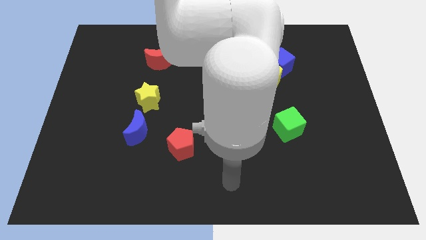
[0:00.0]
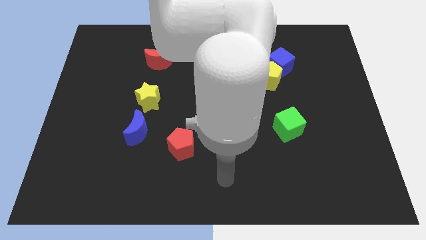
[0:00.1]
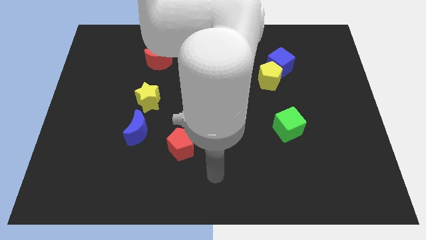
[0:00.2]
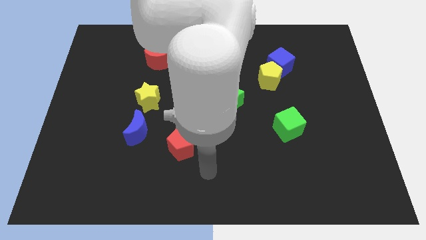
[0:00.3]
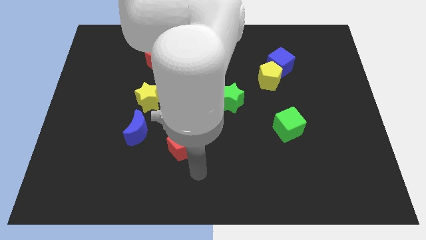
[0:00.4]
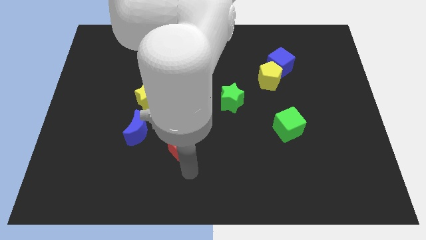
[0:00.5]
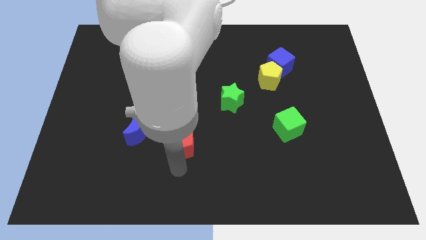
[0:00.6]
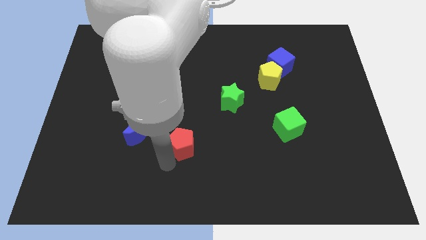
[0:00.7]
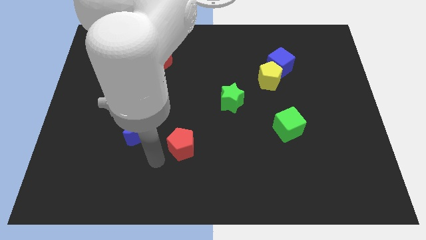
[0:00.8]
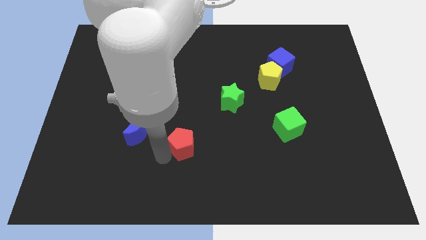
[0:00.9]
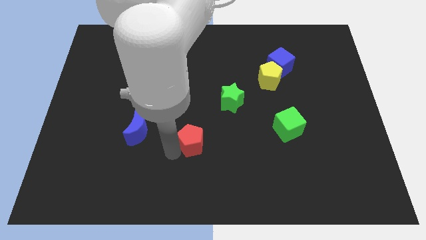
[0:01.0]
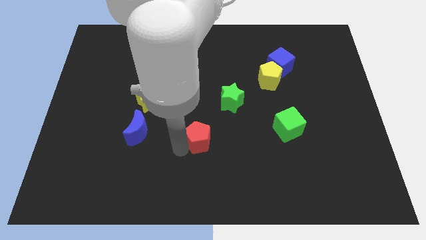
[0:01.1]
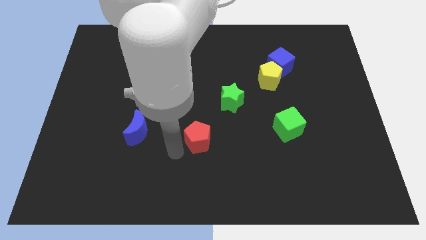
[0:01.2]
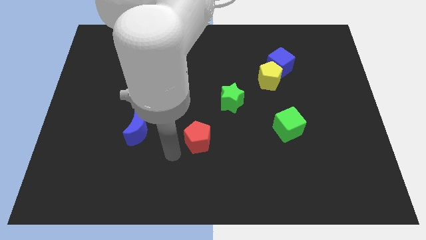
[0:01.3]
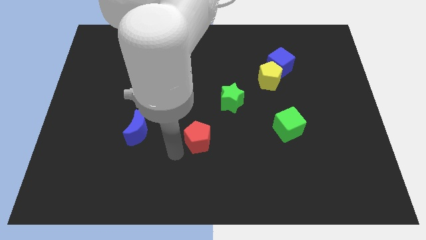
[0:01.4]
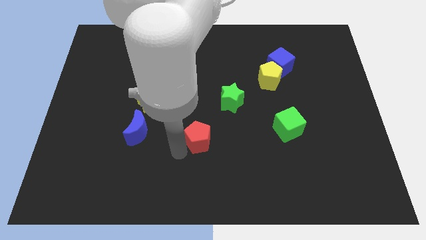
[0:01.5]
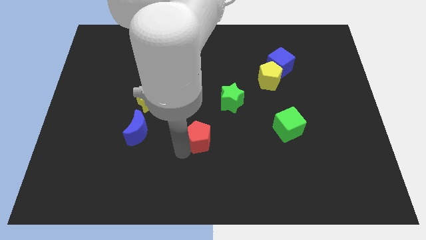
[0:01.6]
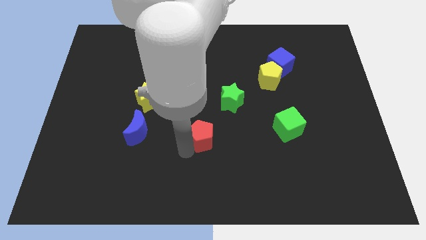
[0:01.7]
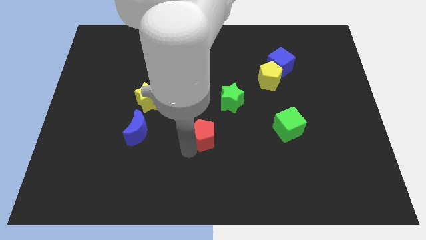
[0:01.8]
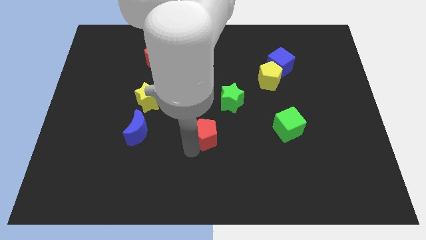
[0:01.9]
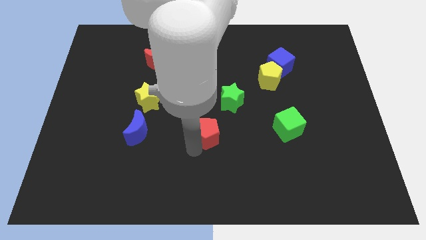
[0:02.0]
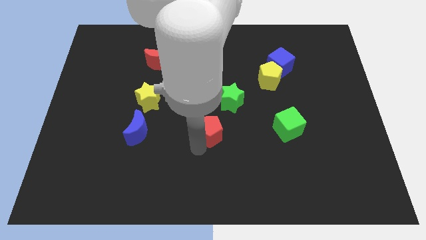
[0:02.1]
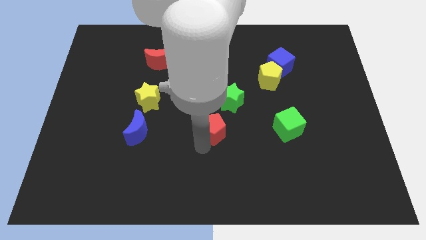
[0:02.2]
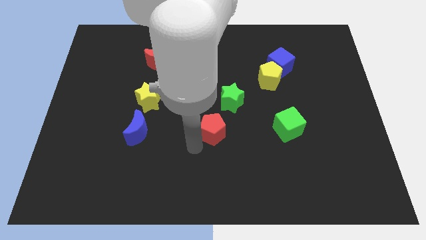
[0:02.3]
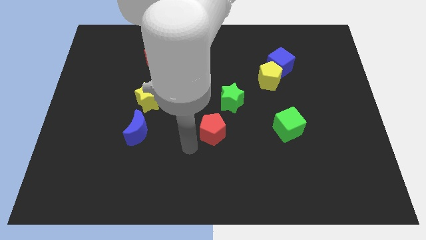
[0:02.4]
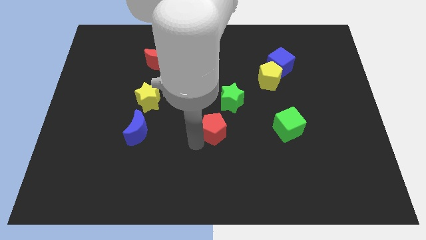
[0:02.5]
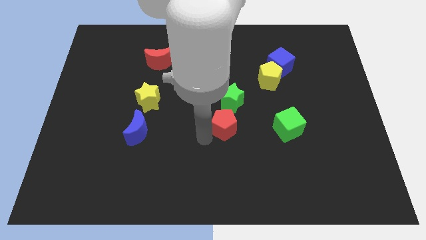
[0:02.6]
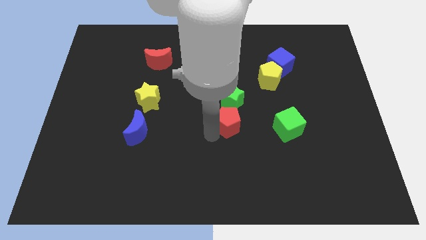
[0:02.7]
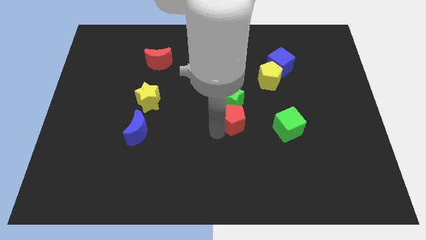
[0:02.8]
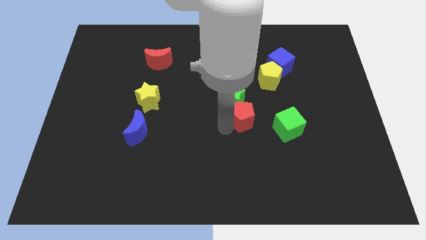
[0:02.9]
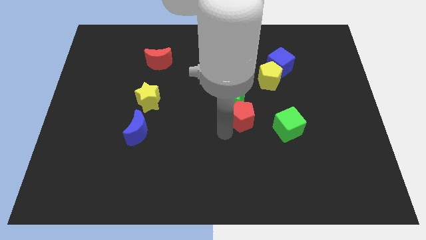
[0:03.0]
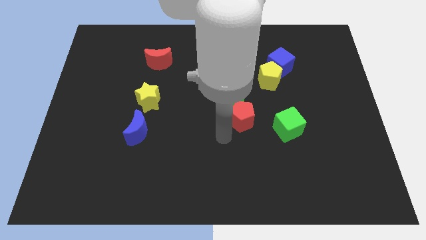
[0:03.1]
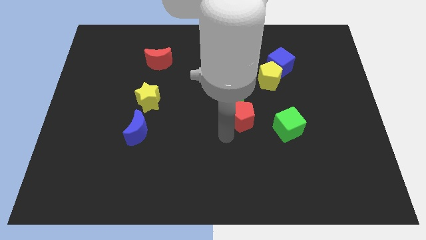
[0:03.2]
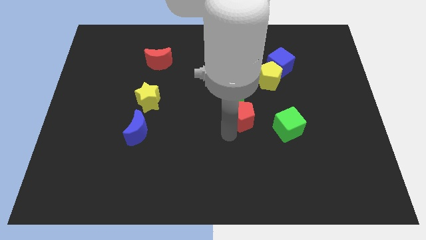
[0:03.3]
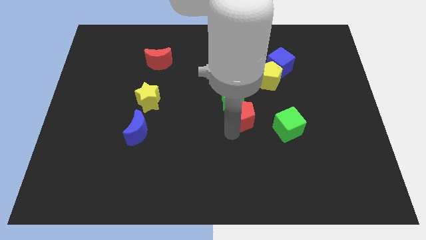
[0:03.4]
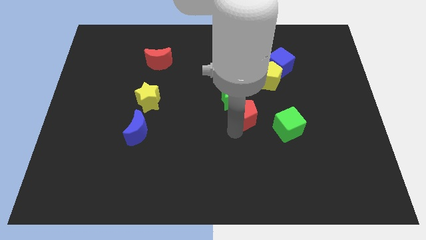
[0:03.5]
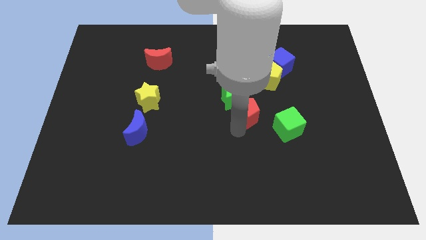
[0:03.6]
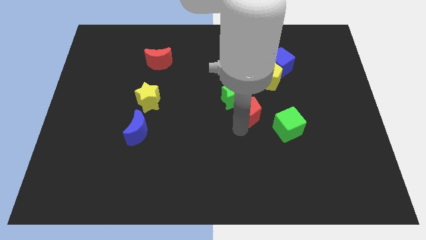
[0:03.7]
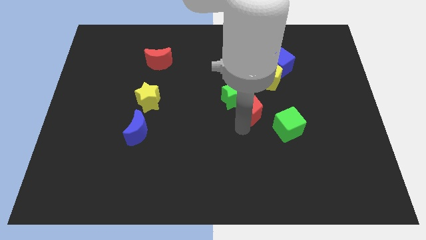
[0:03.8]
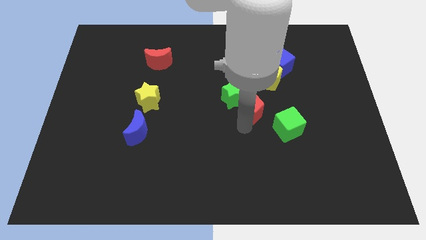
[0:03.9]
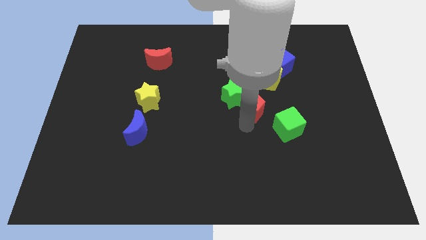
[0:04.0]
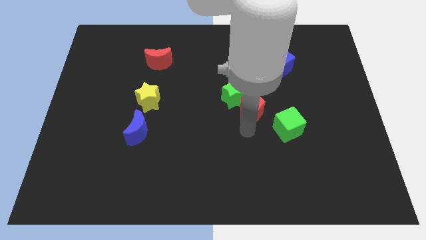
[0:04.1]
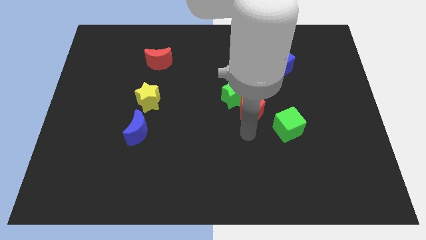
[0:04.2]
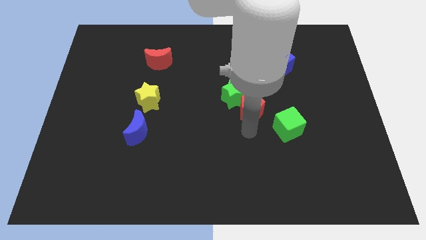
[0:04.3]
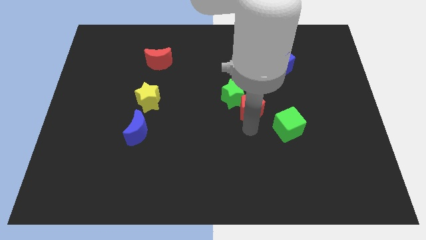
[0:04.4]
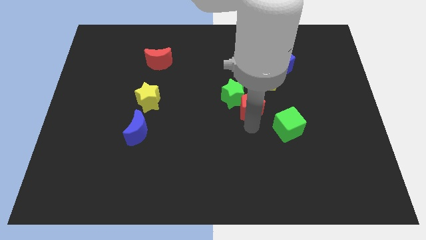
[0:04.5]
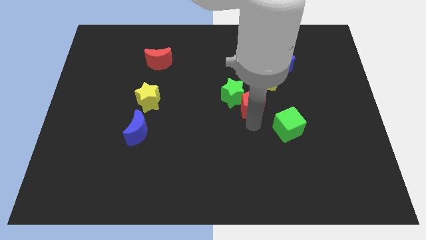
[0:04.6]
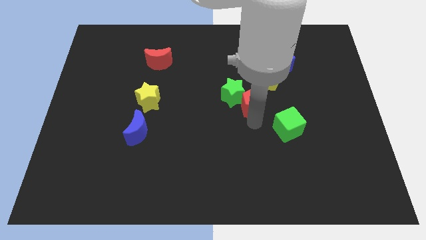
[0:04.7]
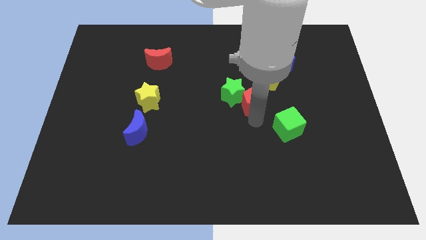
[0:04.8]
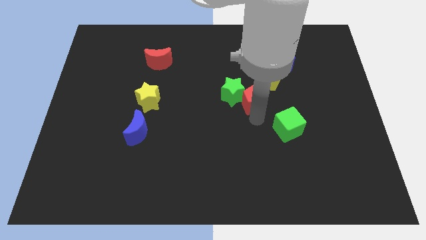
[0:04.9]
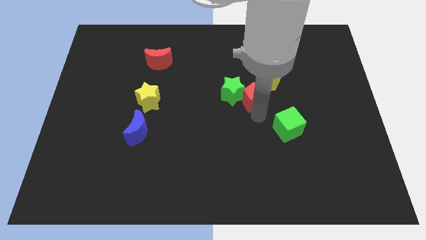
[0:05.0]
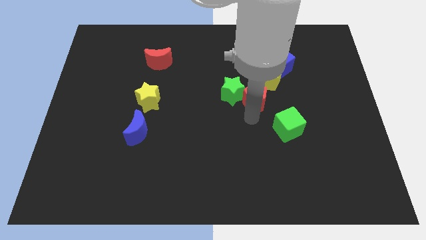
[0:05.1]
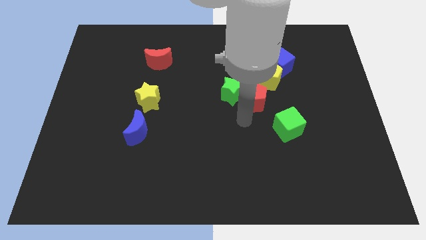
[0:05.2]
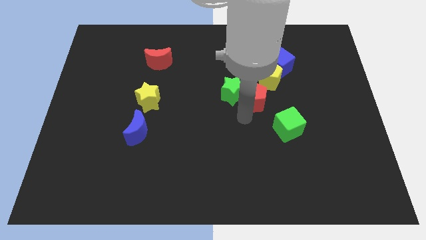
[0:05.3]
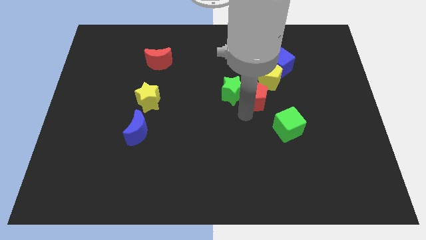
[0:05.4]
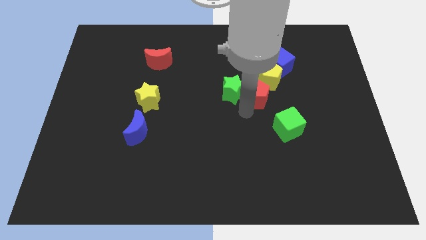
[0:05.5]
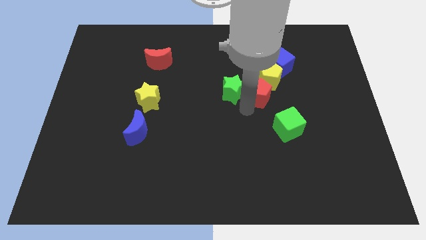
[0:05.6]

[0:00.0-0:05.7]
put the red pentagon to the yellow pentagon

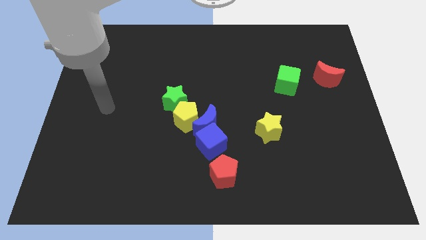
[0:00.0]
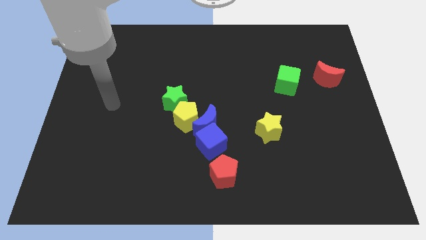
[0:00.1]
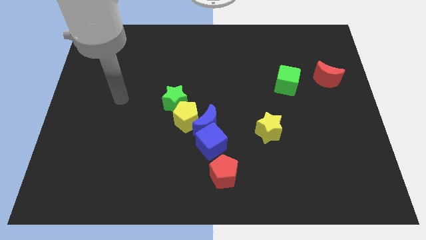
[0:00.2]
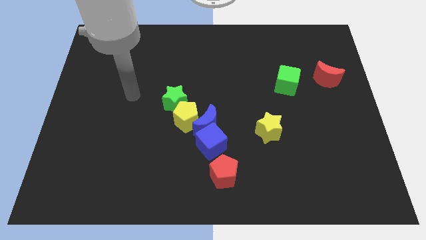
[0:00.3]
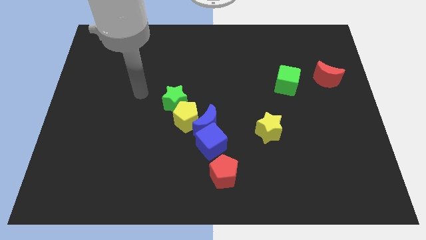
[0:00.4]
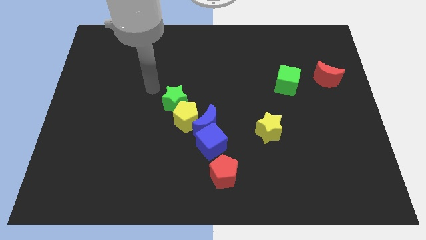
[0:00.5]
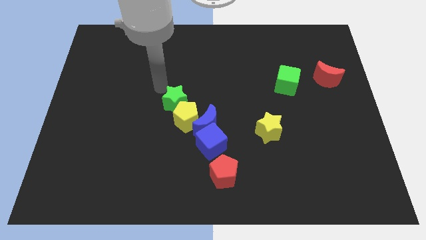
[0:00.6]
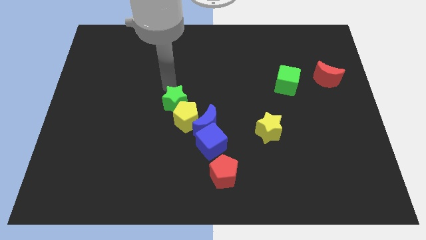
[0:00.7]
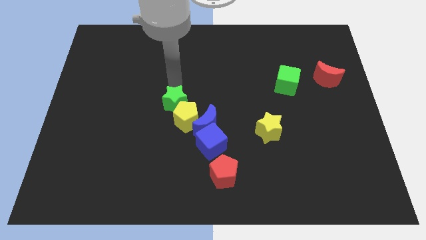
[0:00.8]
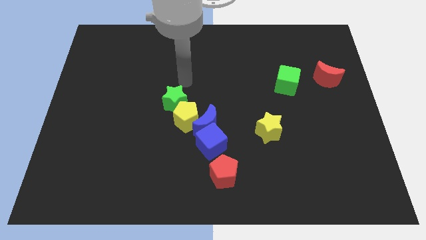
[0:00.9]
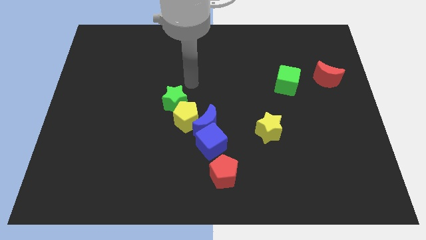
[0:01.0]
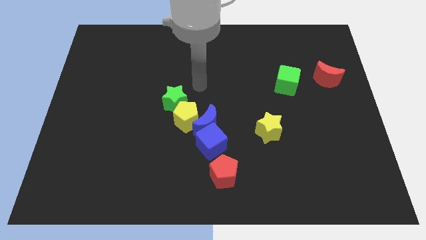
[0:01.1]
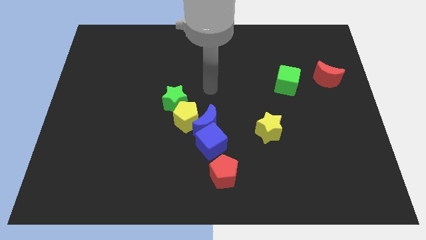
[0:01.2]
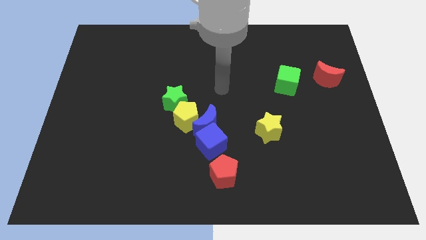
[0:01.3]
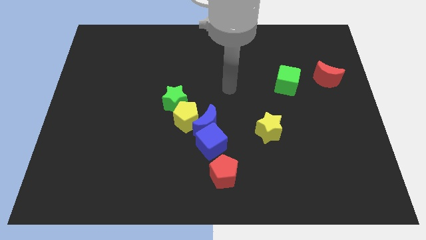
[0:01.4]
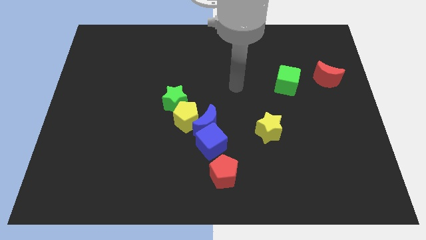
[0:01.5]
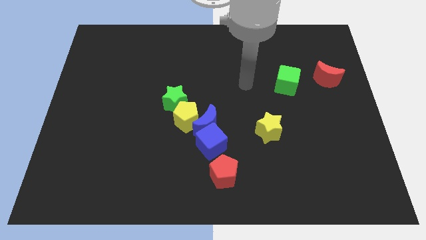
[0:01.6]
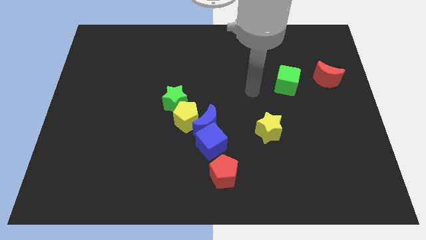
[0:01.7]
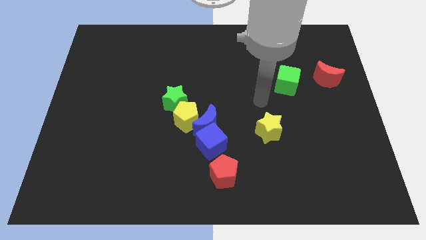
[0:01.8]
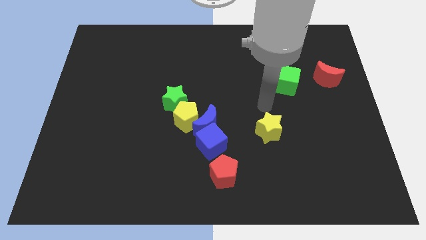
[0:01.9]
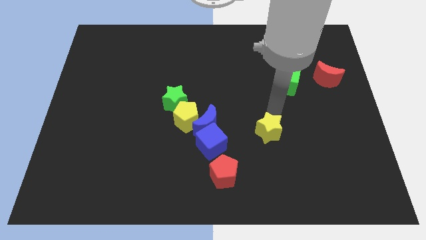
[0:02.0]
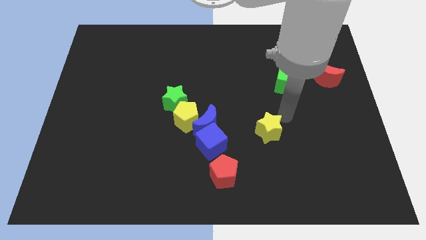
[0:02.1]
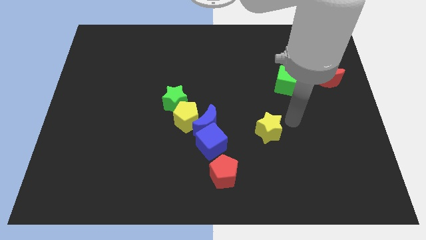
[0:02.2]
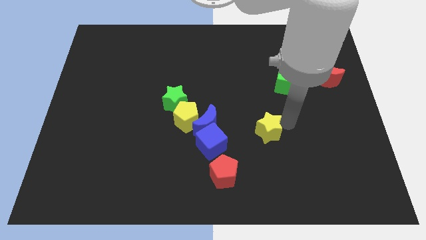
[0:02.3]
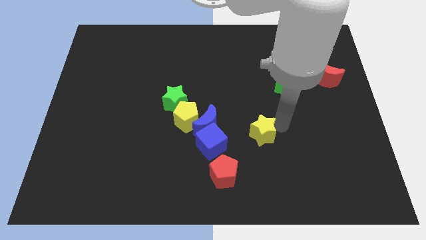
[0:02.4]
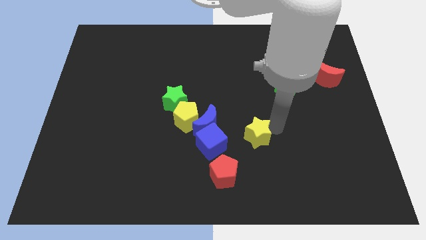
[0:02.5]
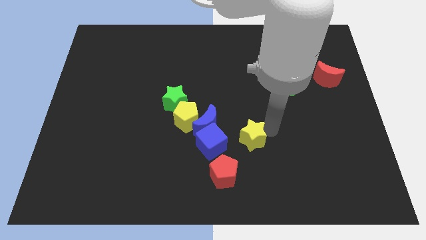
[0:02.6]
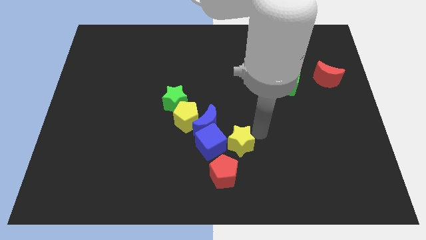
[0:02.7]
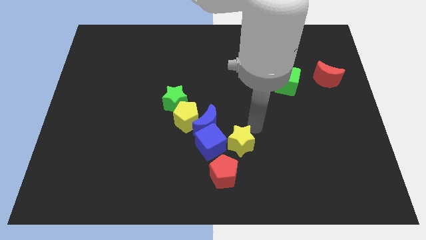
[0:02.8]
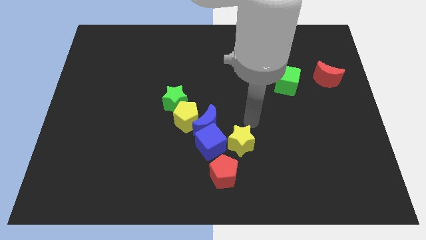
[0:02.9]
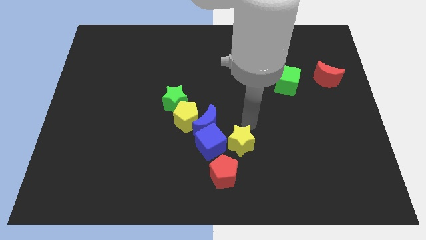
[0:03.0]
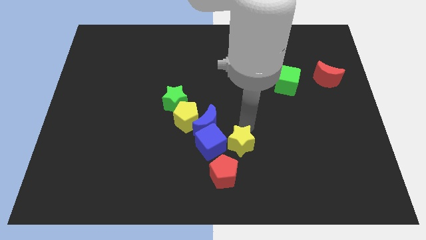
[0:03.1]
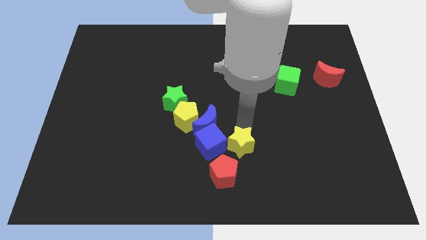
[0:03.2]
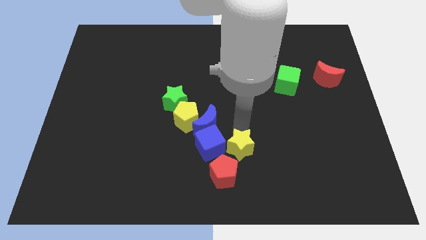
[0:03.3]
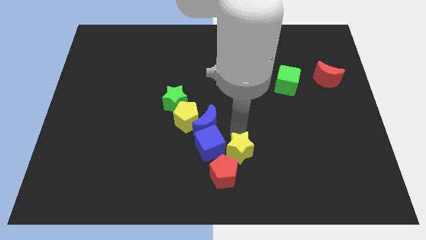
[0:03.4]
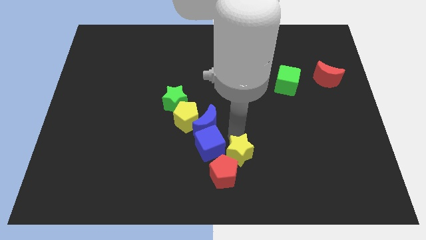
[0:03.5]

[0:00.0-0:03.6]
slide the yellow star close to the red pentagon
